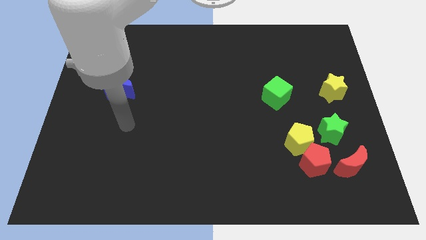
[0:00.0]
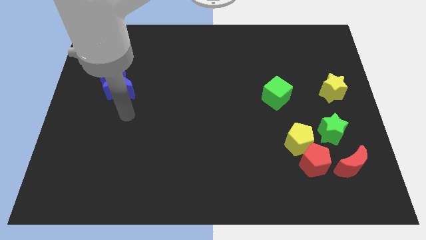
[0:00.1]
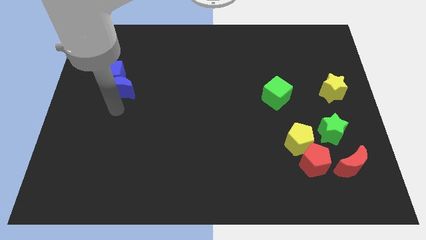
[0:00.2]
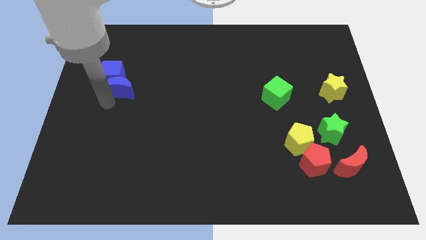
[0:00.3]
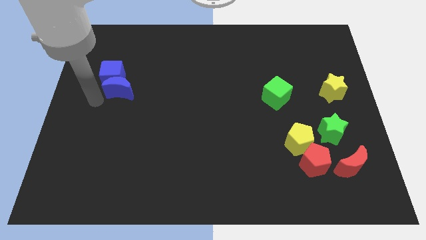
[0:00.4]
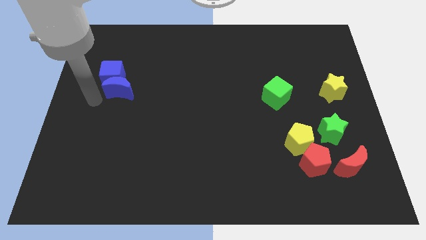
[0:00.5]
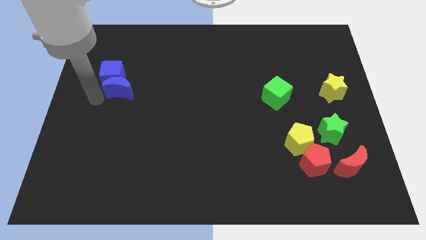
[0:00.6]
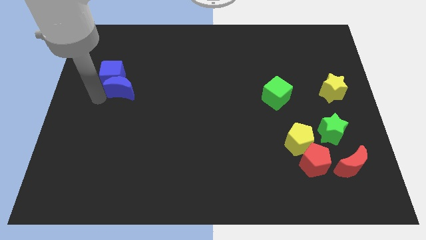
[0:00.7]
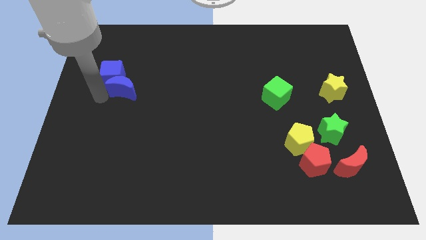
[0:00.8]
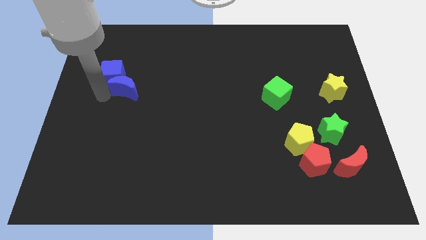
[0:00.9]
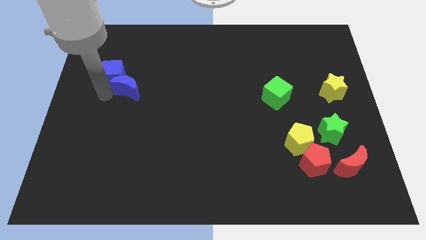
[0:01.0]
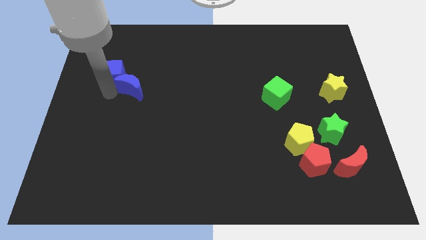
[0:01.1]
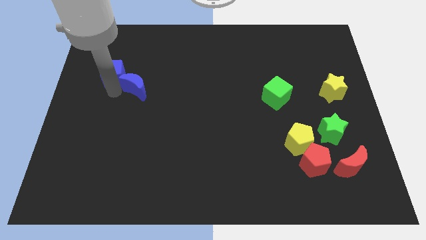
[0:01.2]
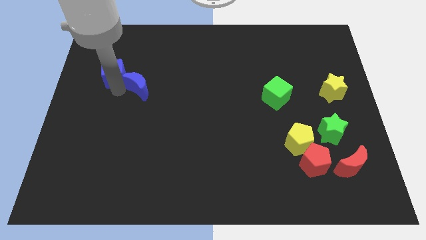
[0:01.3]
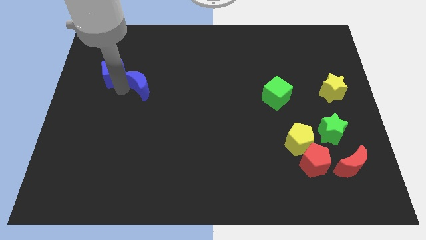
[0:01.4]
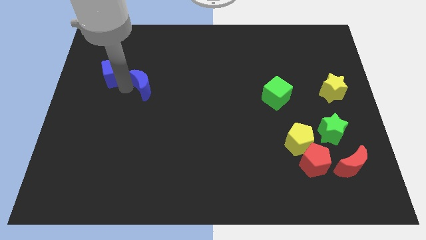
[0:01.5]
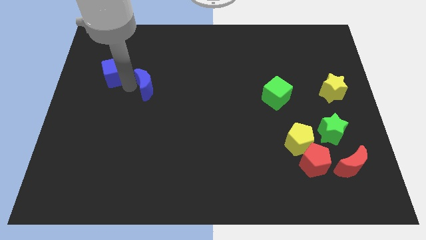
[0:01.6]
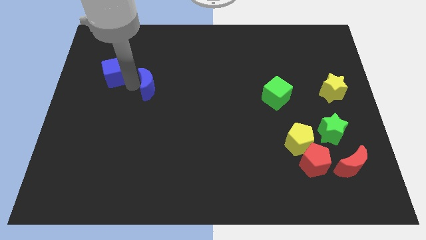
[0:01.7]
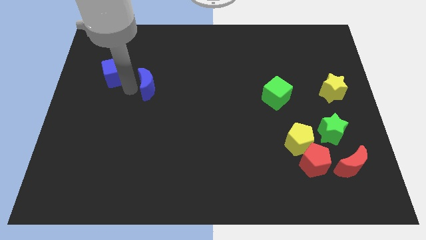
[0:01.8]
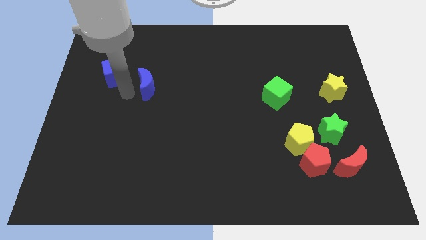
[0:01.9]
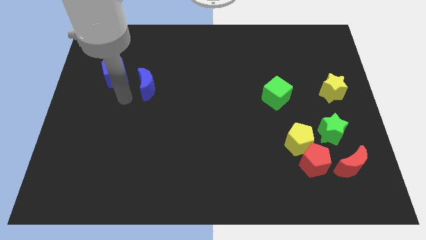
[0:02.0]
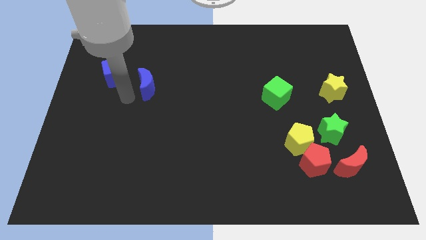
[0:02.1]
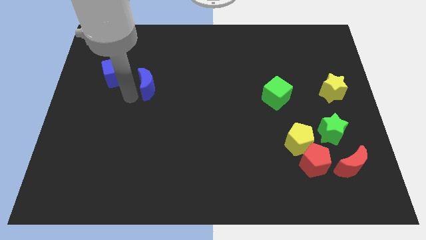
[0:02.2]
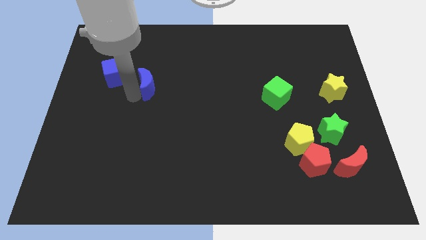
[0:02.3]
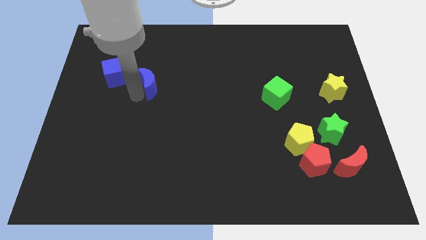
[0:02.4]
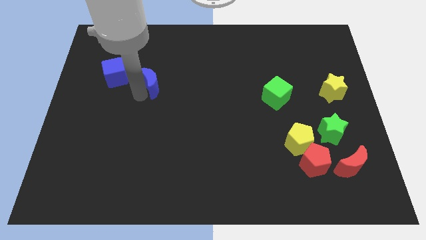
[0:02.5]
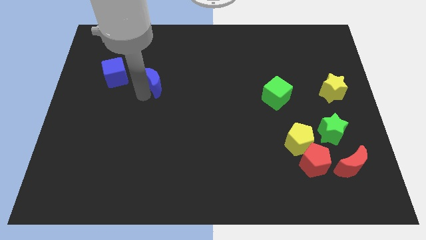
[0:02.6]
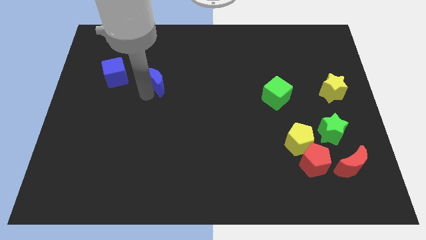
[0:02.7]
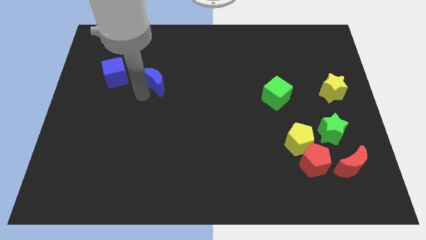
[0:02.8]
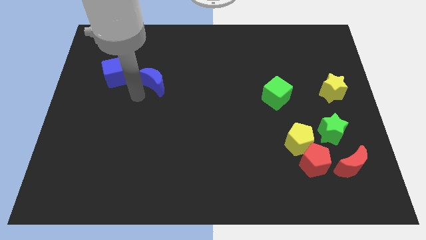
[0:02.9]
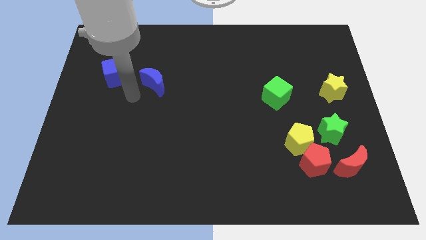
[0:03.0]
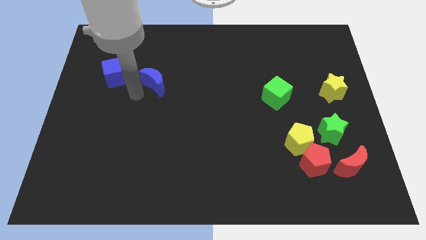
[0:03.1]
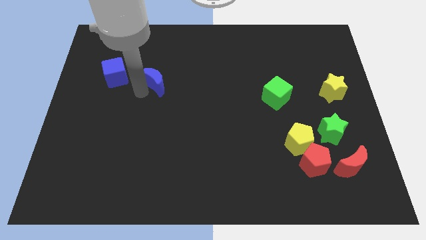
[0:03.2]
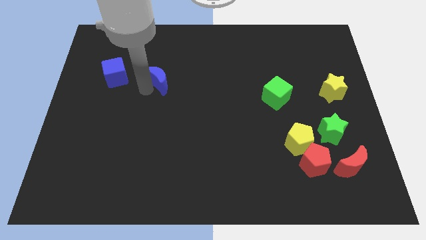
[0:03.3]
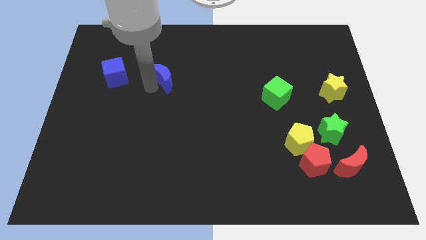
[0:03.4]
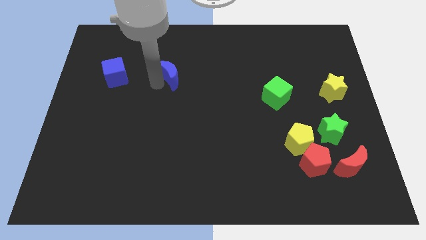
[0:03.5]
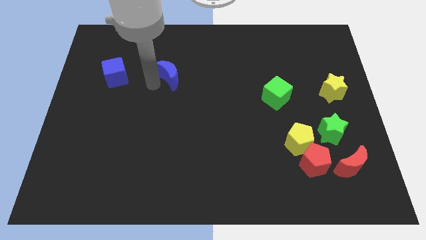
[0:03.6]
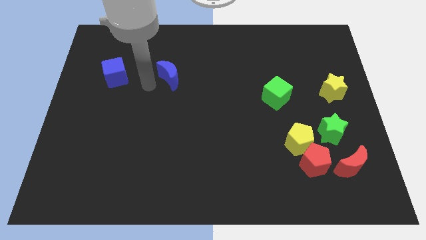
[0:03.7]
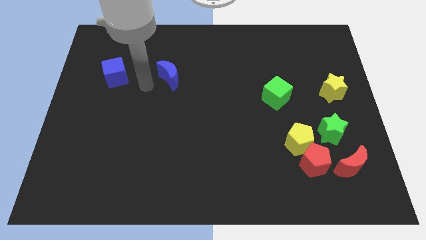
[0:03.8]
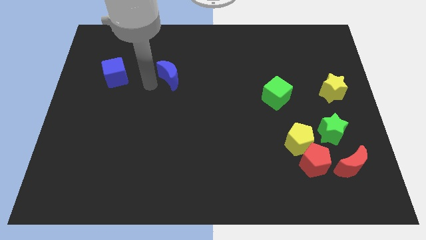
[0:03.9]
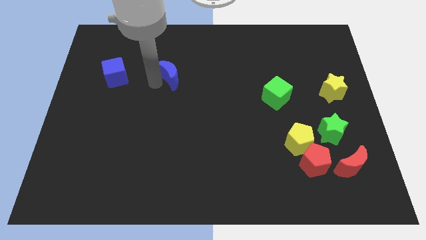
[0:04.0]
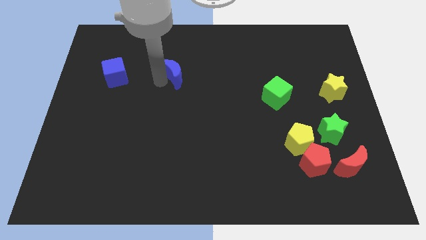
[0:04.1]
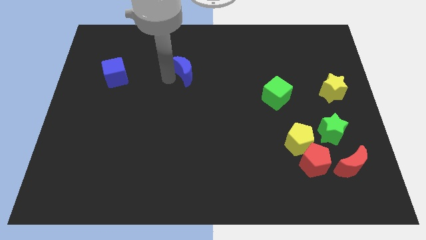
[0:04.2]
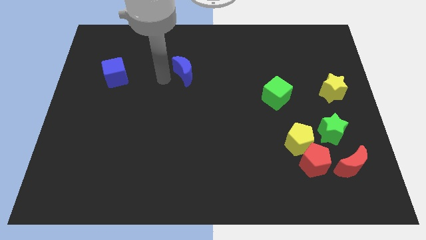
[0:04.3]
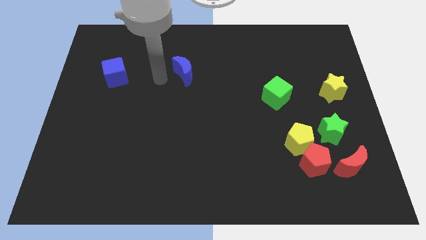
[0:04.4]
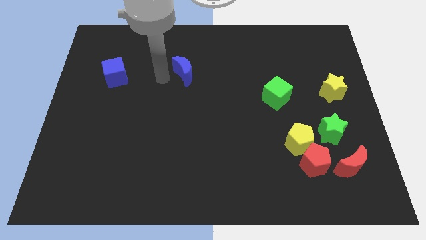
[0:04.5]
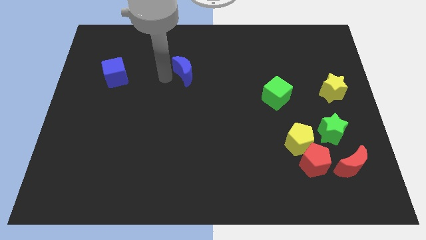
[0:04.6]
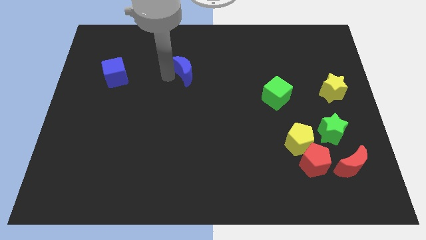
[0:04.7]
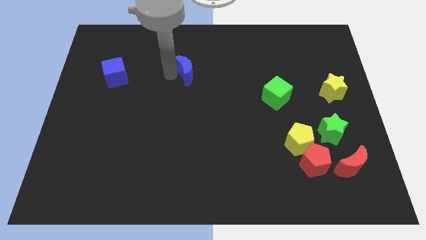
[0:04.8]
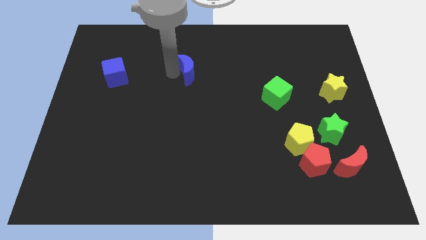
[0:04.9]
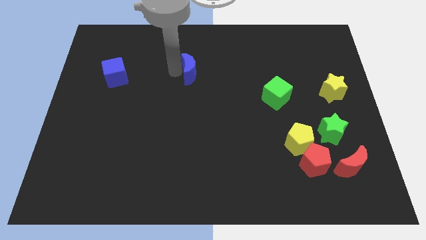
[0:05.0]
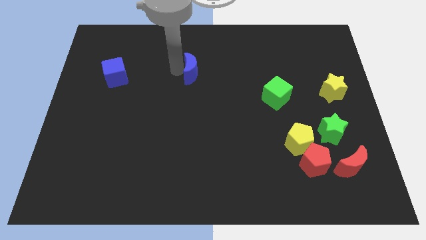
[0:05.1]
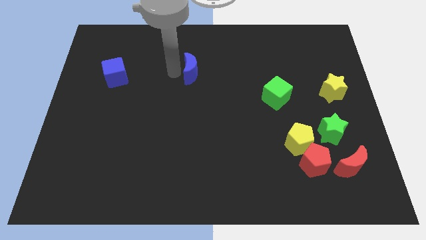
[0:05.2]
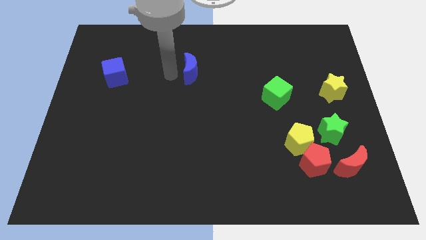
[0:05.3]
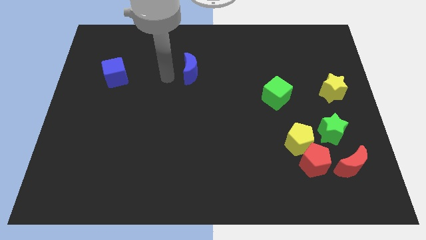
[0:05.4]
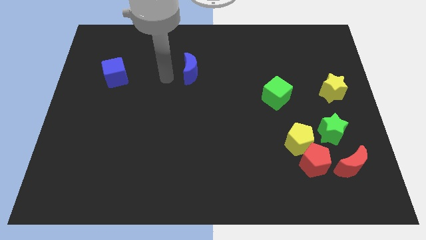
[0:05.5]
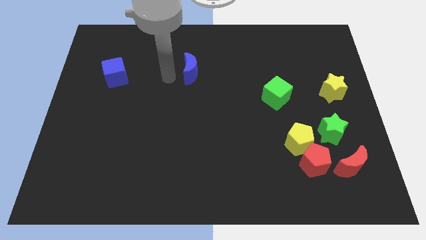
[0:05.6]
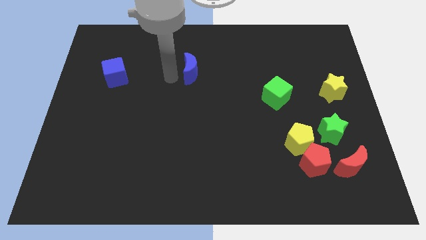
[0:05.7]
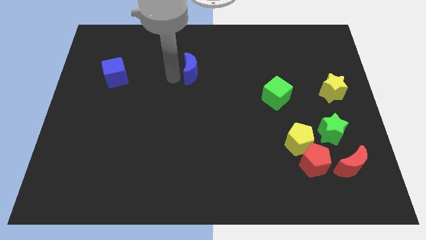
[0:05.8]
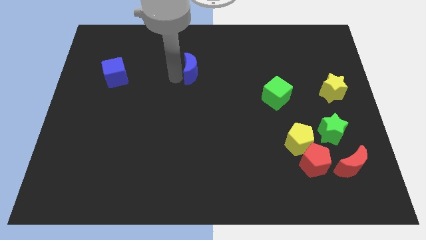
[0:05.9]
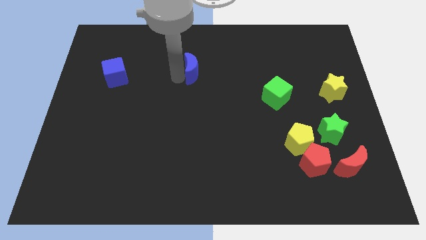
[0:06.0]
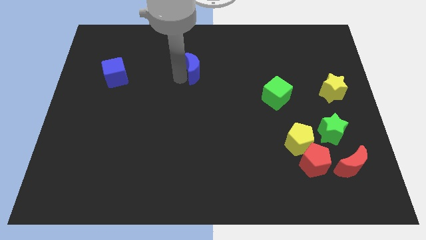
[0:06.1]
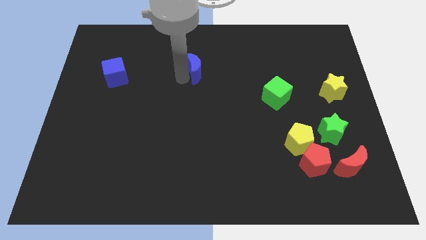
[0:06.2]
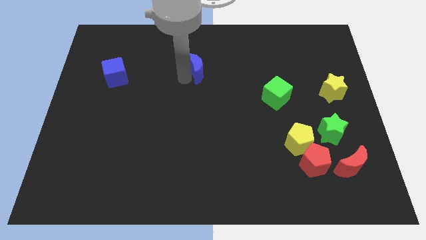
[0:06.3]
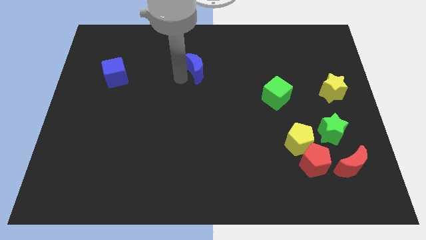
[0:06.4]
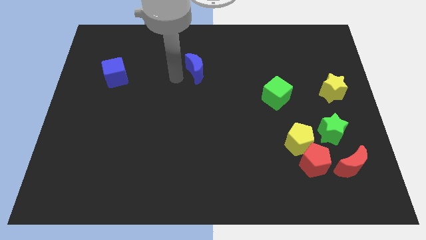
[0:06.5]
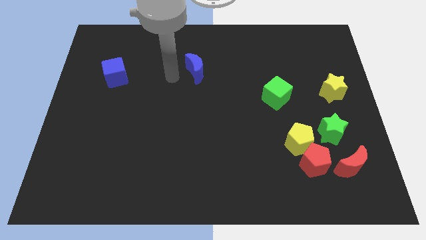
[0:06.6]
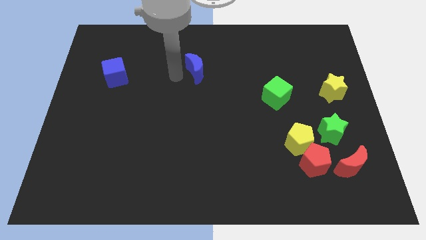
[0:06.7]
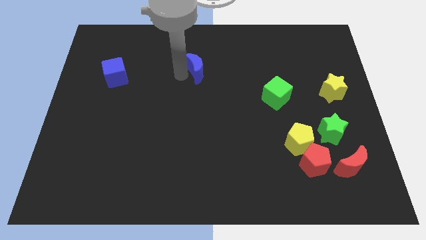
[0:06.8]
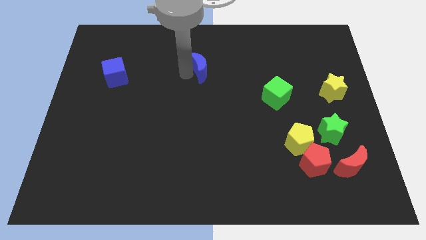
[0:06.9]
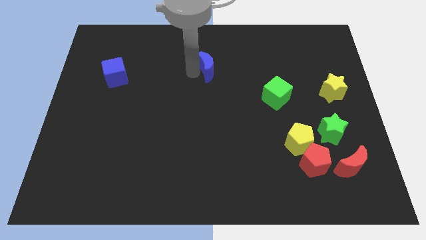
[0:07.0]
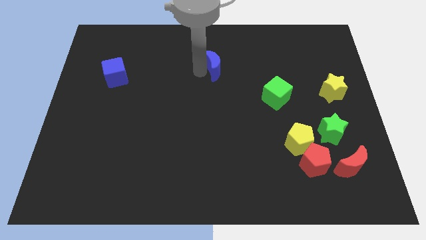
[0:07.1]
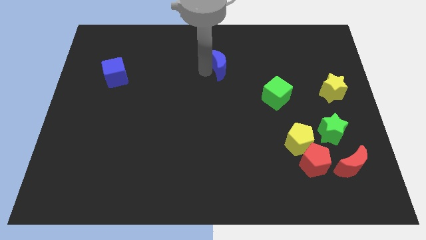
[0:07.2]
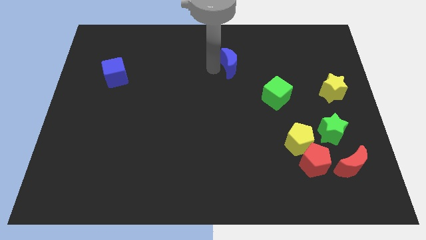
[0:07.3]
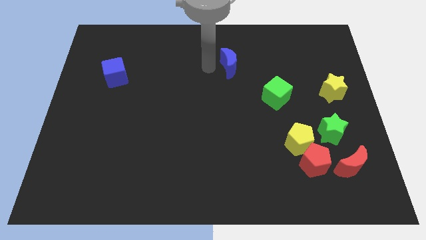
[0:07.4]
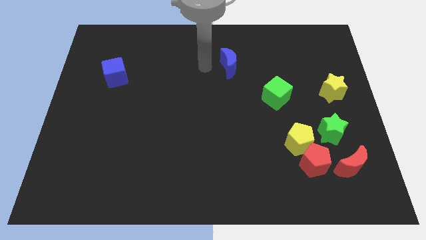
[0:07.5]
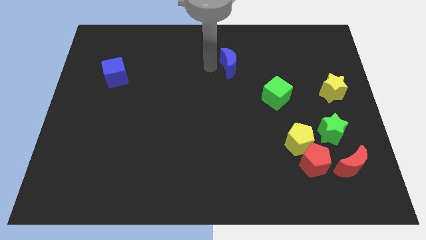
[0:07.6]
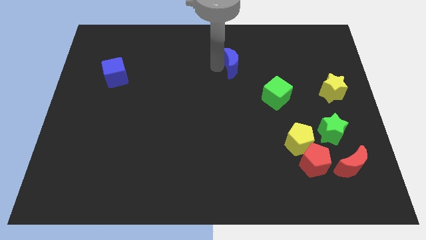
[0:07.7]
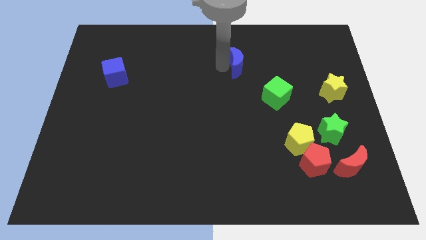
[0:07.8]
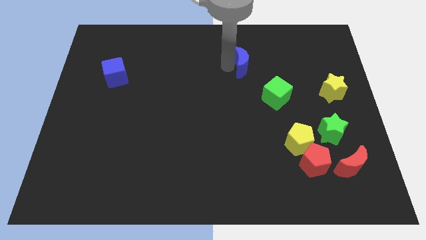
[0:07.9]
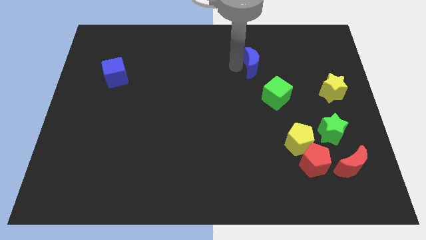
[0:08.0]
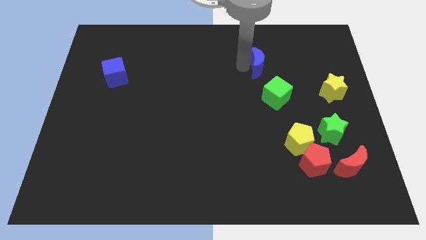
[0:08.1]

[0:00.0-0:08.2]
put the blue moon to the top side of the green cube

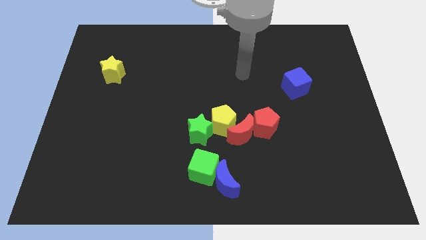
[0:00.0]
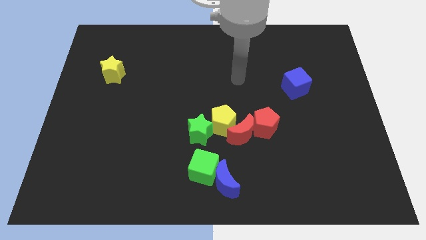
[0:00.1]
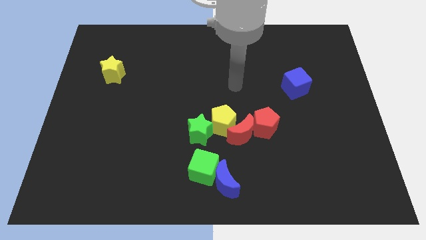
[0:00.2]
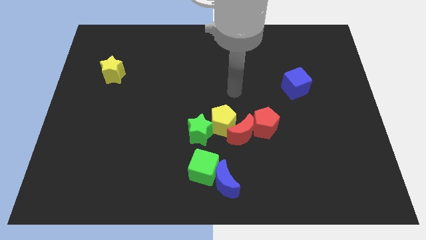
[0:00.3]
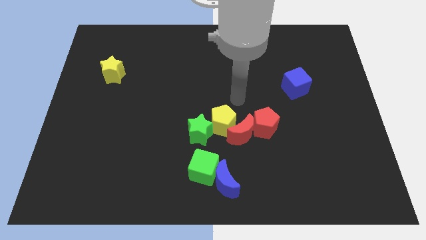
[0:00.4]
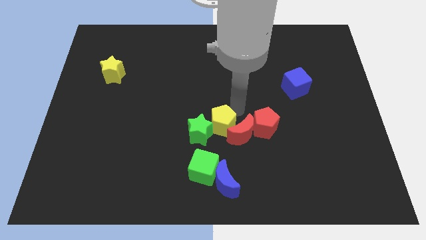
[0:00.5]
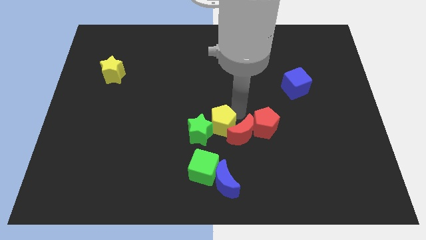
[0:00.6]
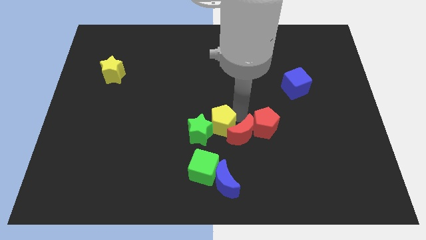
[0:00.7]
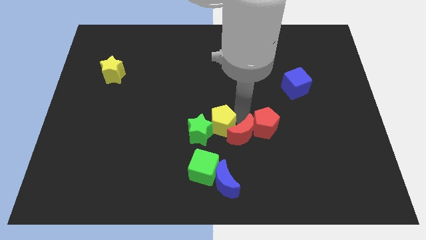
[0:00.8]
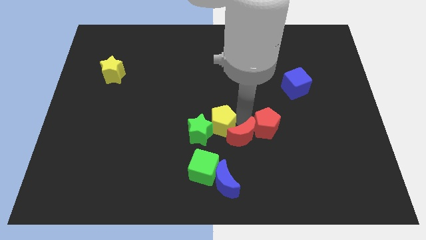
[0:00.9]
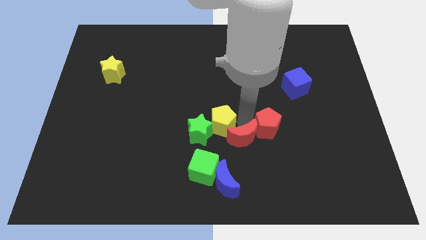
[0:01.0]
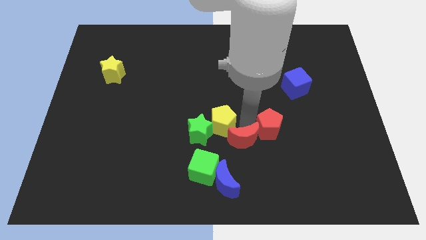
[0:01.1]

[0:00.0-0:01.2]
put the red moon to the top right of the blue moon
